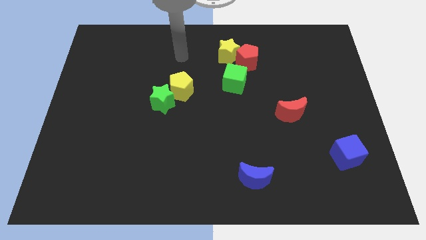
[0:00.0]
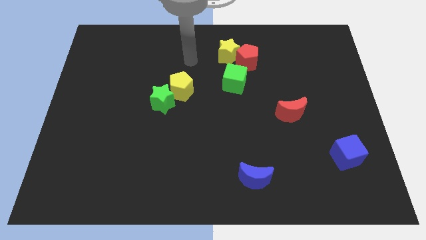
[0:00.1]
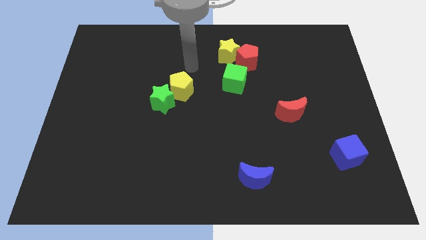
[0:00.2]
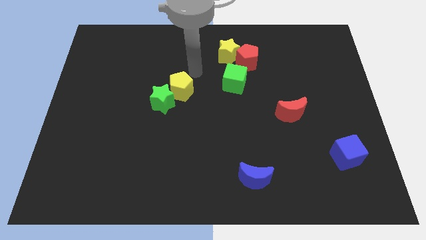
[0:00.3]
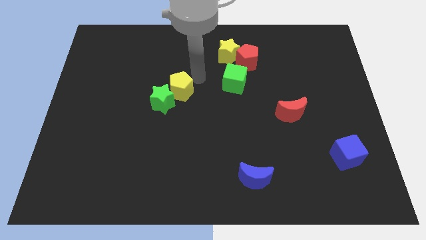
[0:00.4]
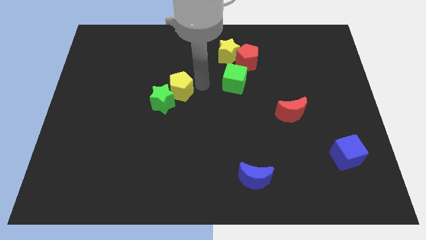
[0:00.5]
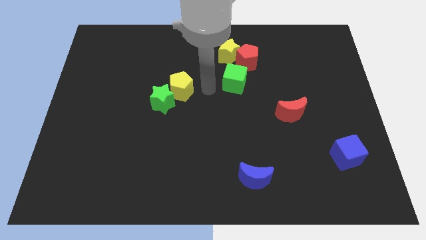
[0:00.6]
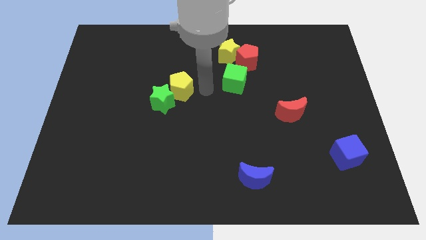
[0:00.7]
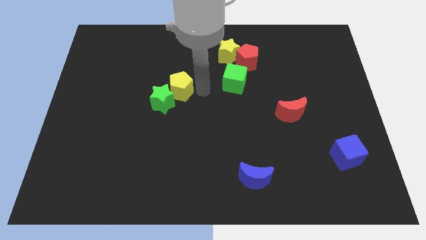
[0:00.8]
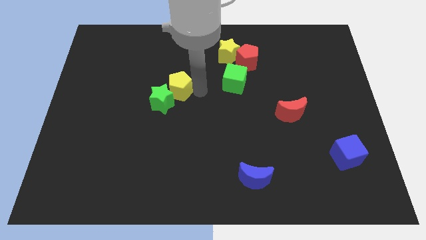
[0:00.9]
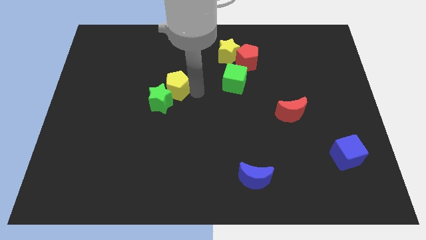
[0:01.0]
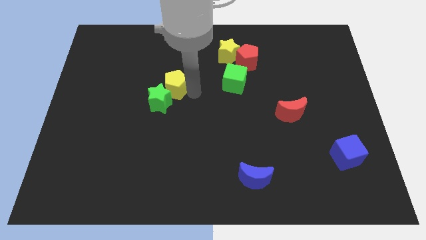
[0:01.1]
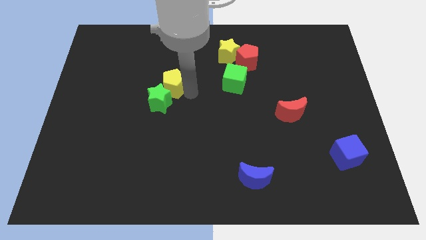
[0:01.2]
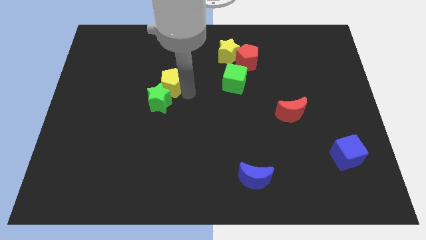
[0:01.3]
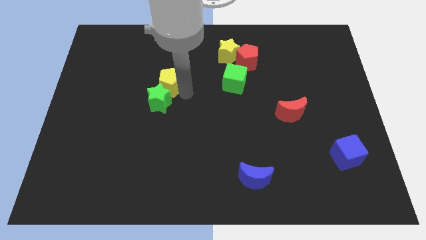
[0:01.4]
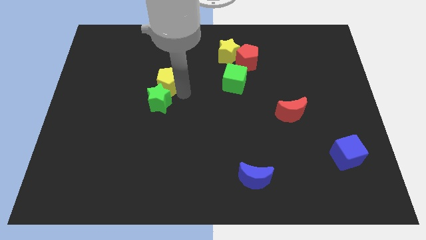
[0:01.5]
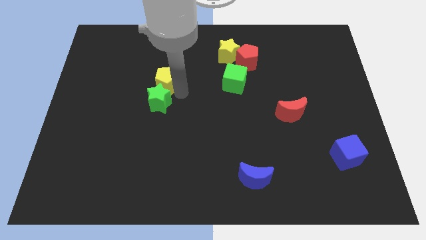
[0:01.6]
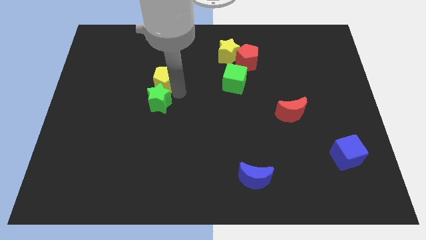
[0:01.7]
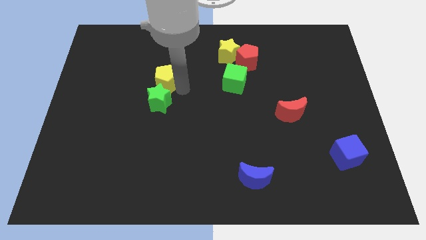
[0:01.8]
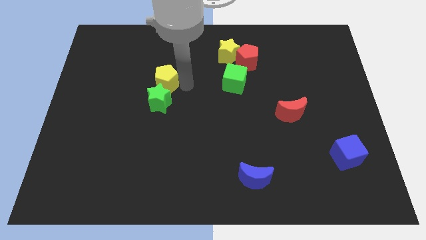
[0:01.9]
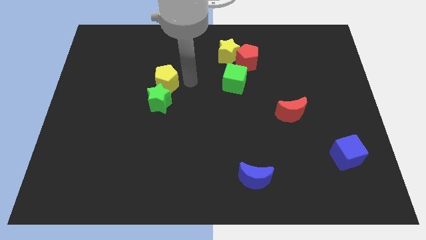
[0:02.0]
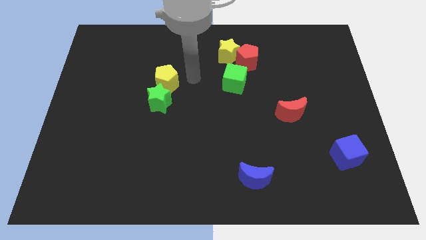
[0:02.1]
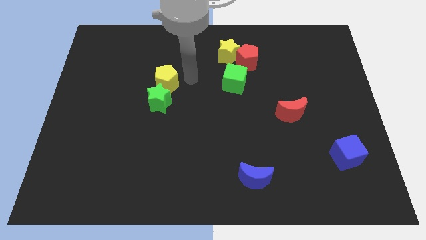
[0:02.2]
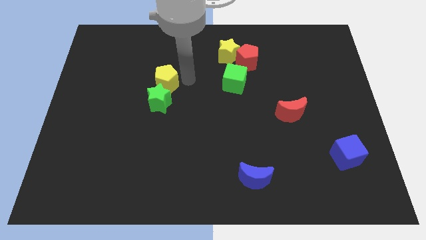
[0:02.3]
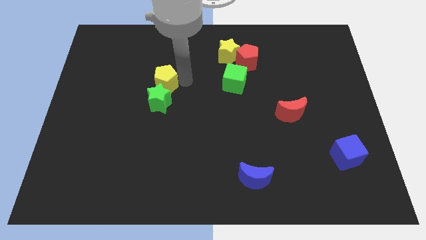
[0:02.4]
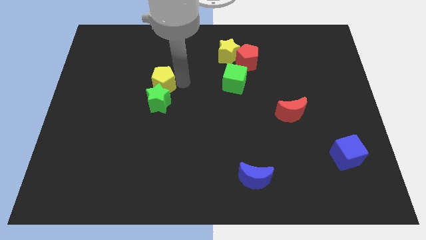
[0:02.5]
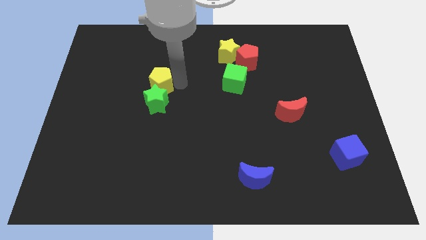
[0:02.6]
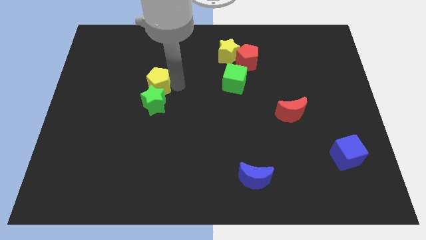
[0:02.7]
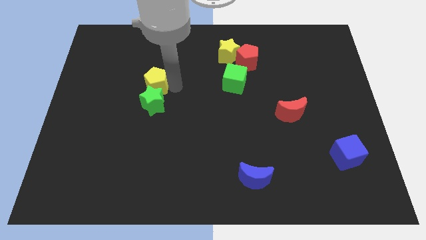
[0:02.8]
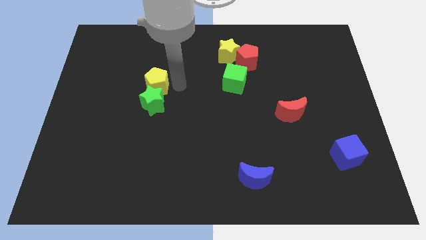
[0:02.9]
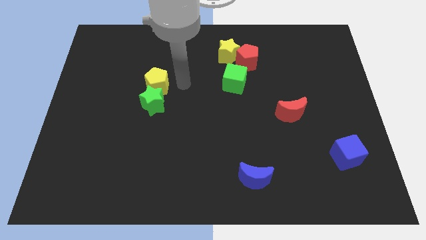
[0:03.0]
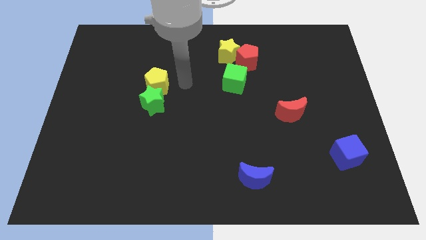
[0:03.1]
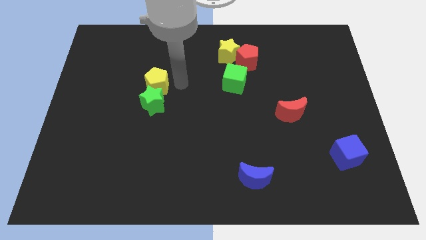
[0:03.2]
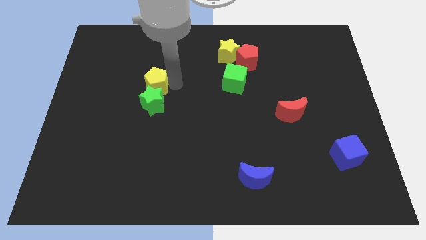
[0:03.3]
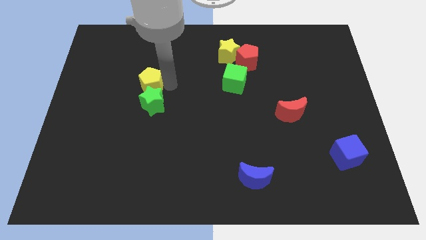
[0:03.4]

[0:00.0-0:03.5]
push the yellow pentagon to the left slightly

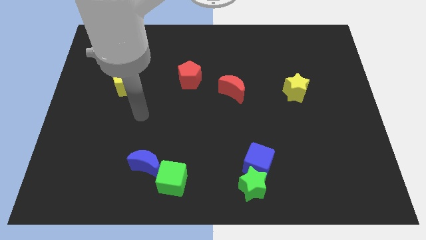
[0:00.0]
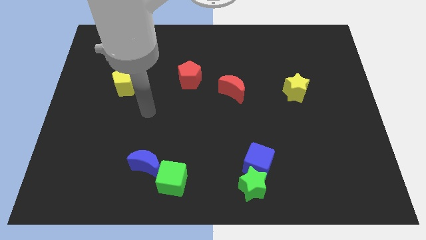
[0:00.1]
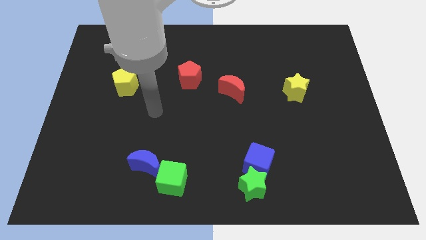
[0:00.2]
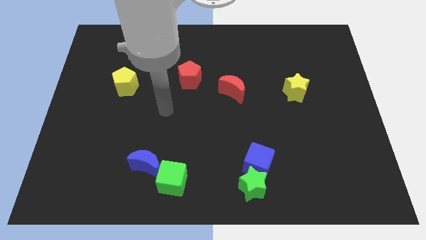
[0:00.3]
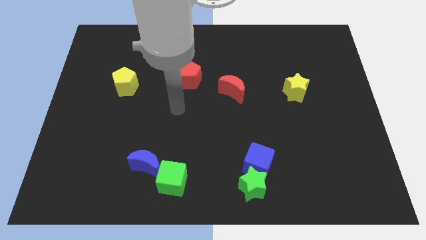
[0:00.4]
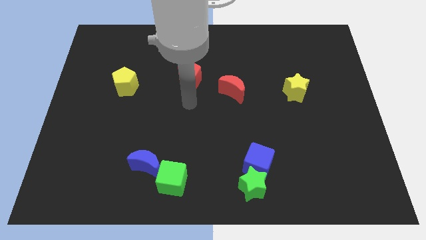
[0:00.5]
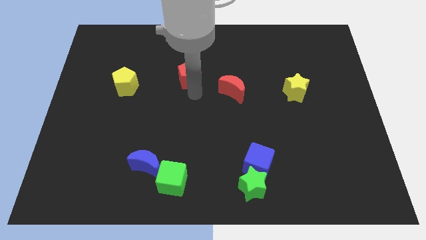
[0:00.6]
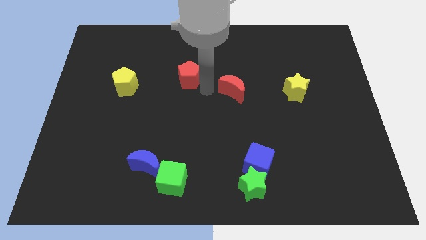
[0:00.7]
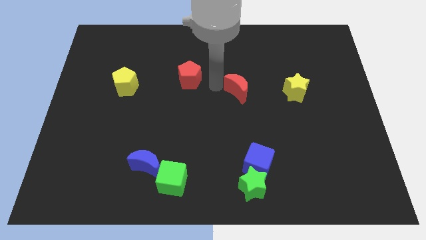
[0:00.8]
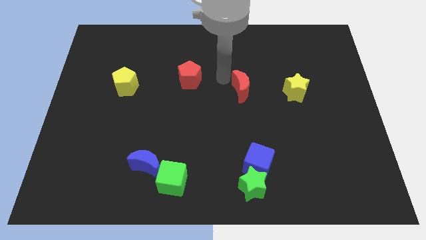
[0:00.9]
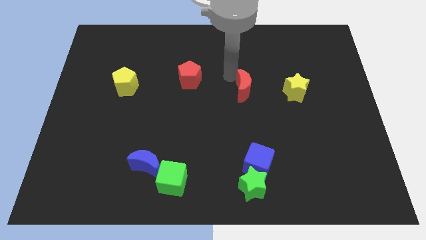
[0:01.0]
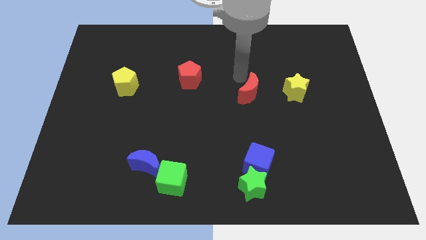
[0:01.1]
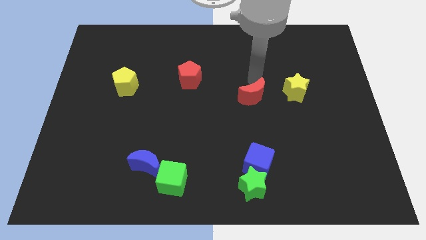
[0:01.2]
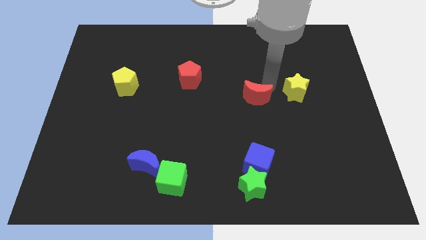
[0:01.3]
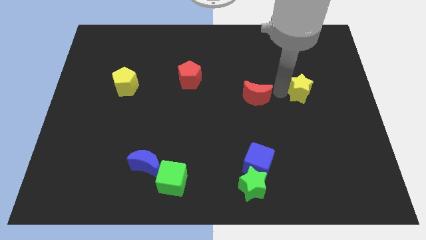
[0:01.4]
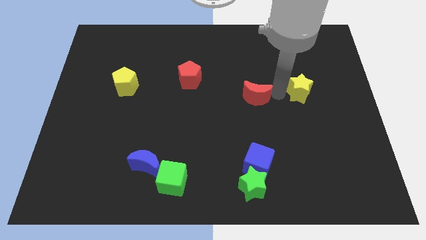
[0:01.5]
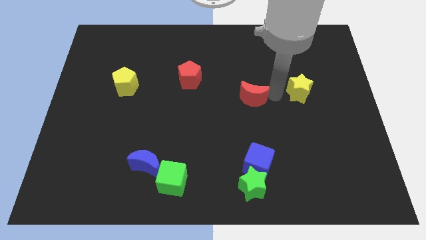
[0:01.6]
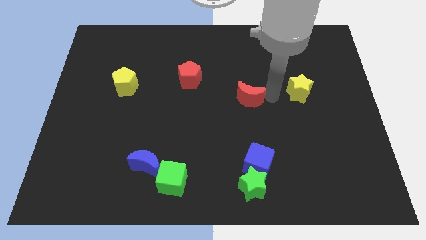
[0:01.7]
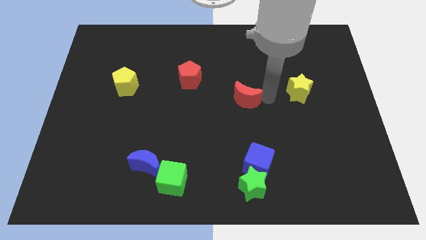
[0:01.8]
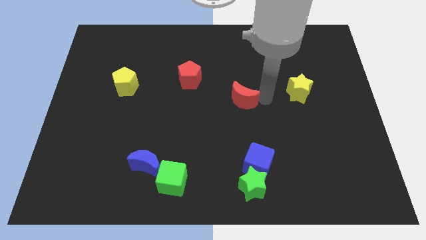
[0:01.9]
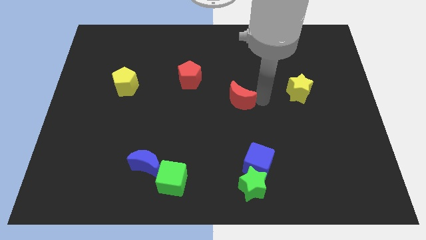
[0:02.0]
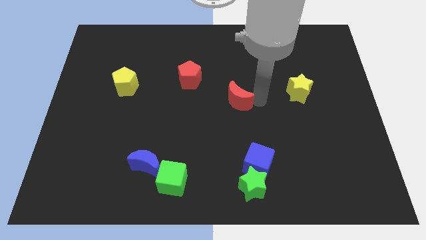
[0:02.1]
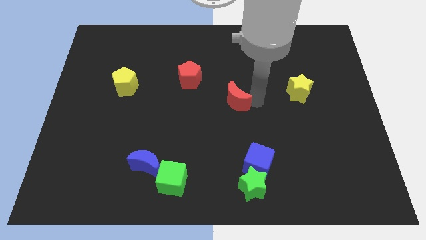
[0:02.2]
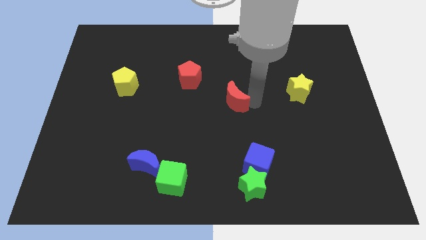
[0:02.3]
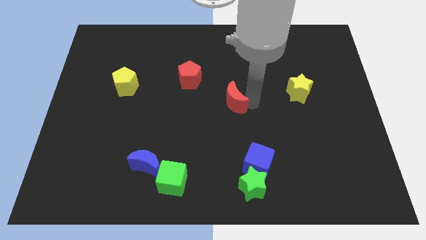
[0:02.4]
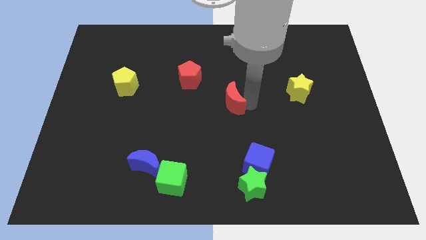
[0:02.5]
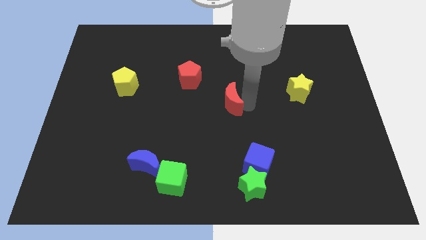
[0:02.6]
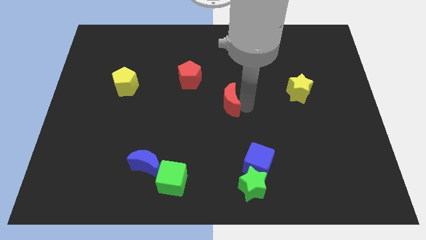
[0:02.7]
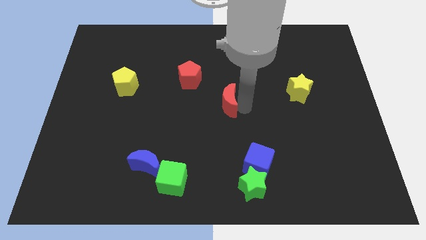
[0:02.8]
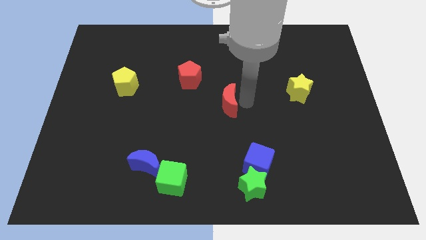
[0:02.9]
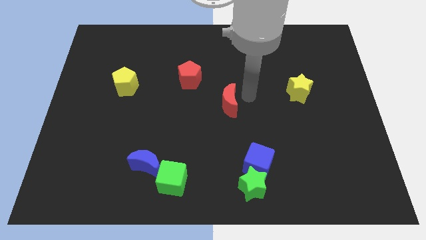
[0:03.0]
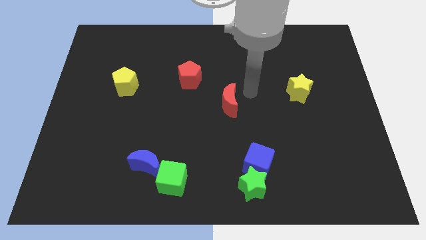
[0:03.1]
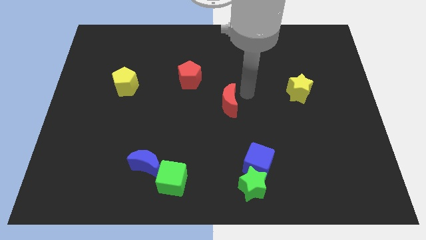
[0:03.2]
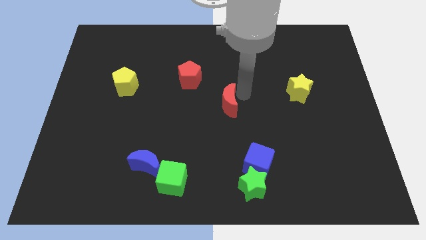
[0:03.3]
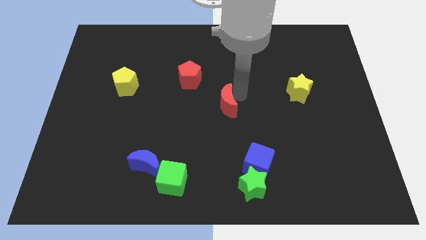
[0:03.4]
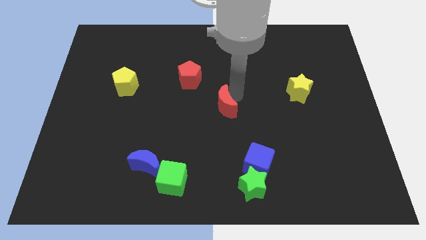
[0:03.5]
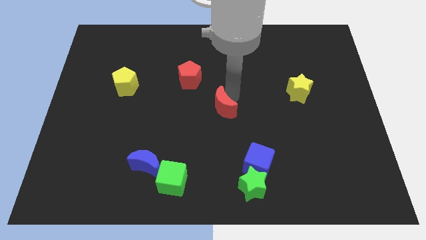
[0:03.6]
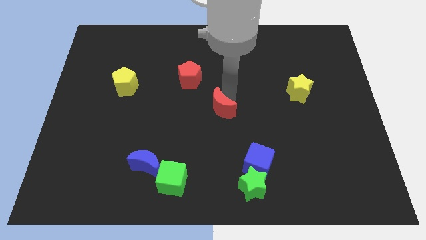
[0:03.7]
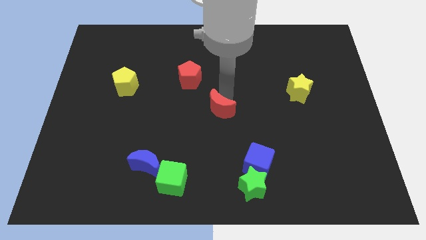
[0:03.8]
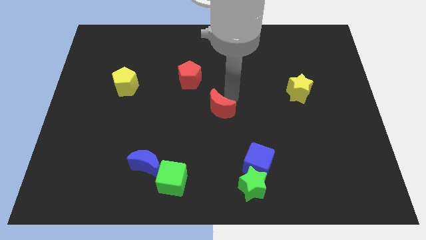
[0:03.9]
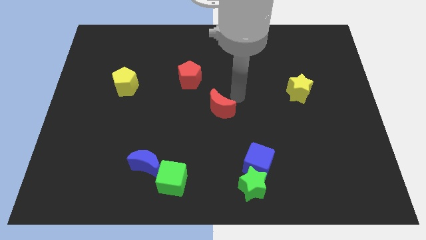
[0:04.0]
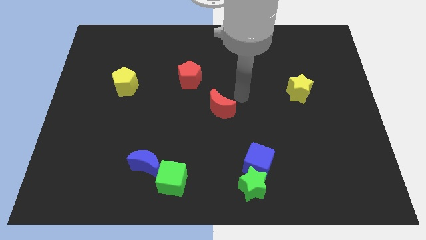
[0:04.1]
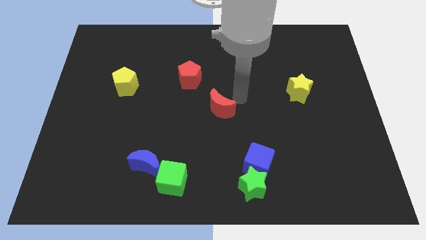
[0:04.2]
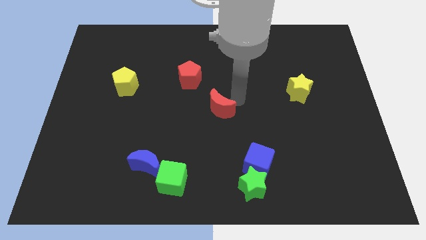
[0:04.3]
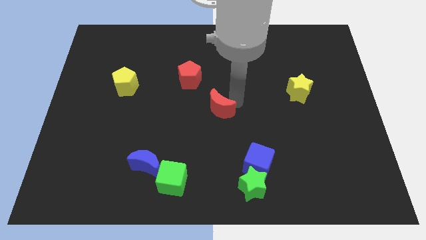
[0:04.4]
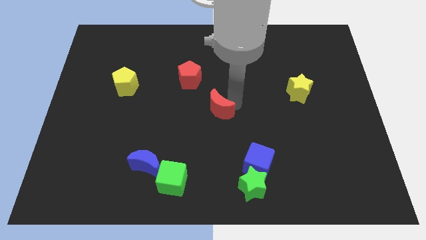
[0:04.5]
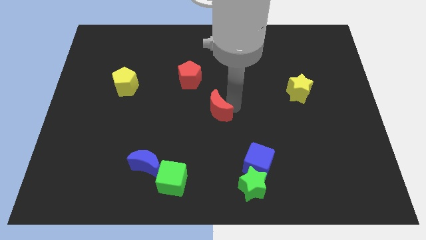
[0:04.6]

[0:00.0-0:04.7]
push the red moon down and to the left diagonally a little

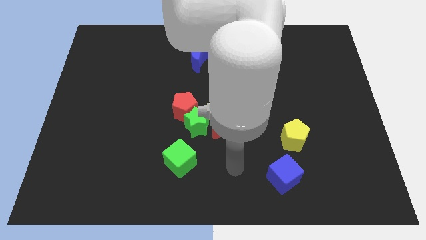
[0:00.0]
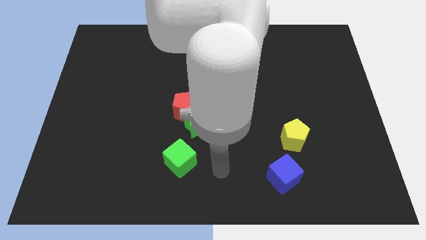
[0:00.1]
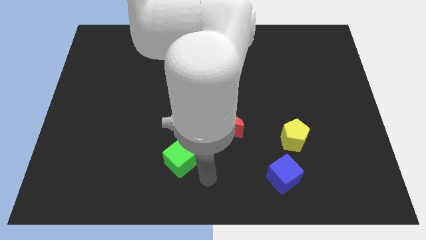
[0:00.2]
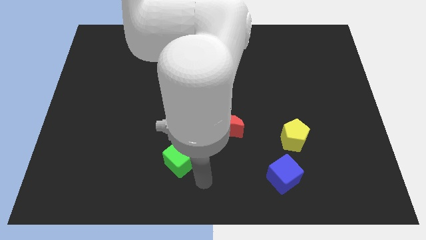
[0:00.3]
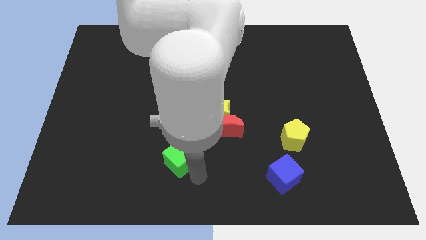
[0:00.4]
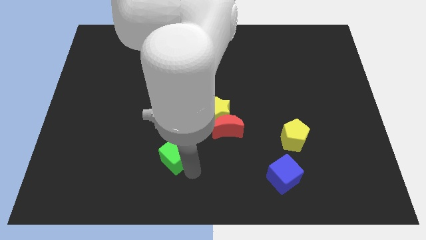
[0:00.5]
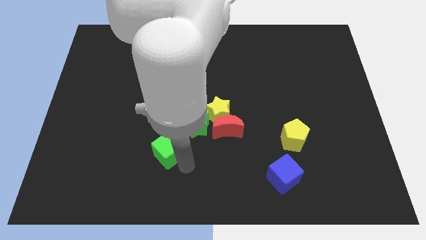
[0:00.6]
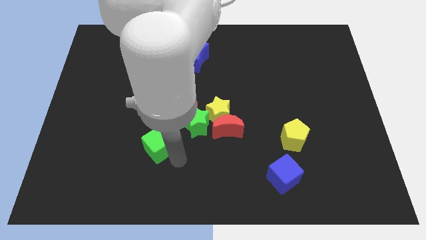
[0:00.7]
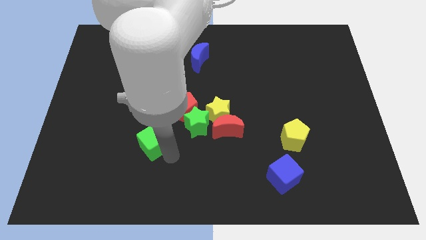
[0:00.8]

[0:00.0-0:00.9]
move the green cube up and left a bit
